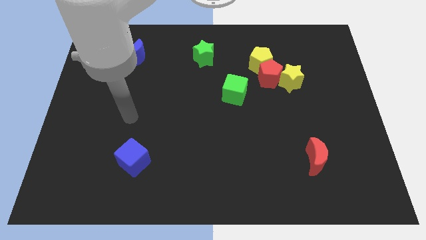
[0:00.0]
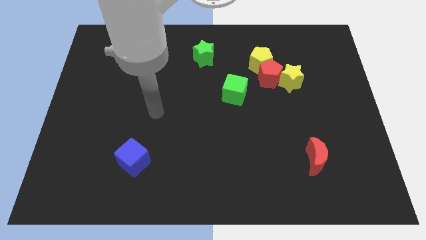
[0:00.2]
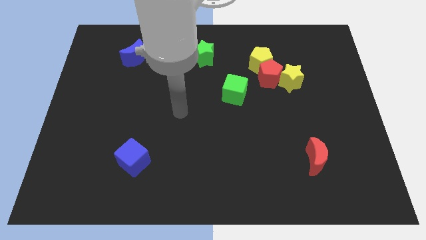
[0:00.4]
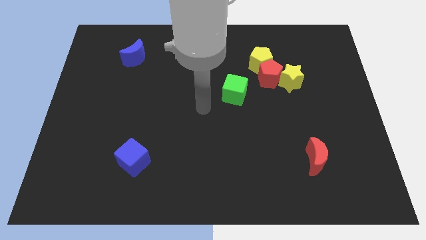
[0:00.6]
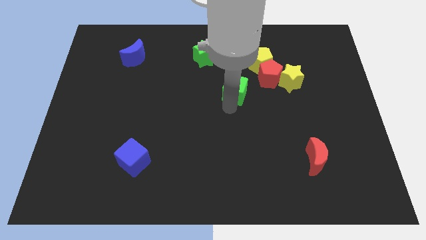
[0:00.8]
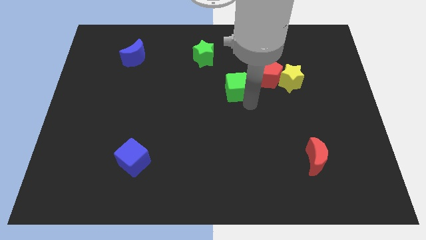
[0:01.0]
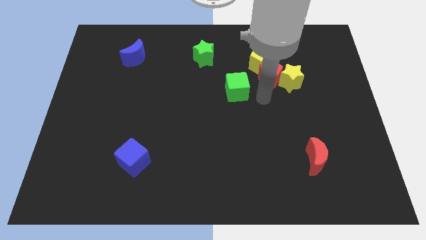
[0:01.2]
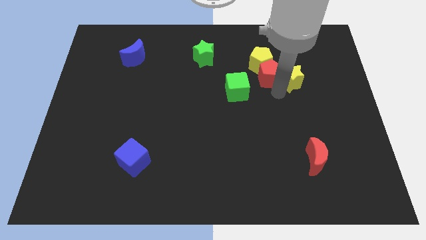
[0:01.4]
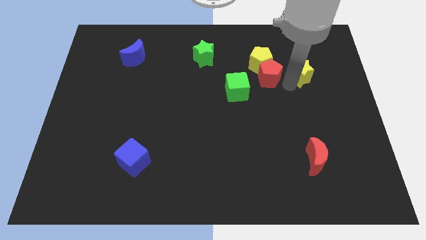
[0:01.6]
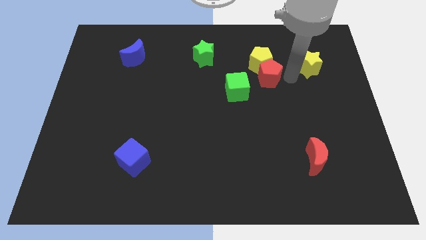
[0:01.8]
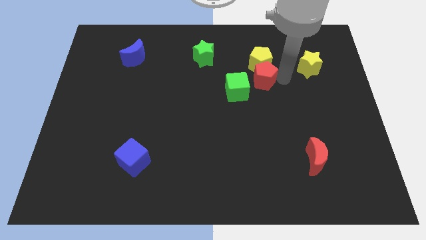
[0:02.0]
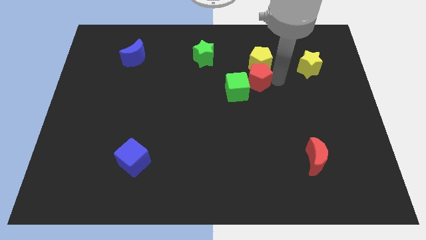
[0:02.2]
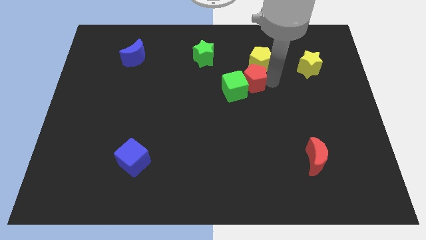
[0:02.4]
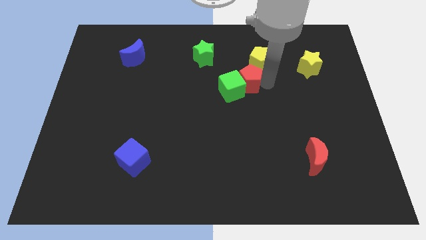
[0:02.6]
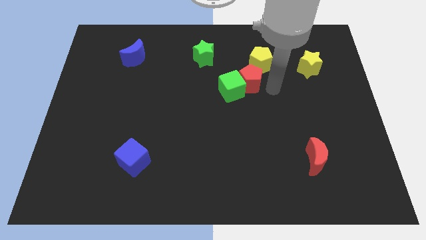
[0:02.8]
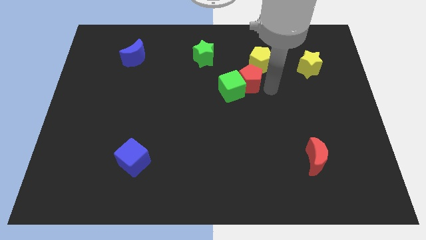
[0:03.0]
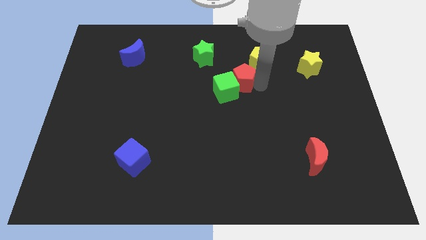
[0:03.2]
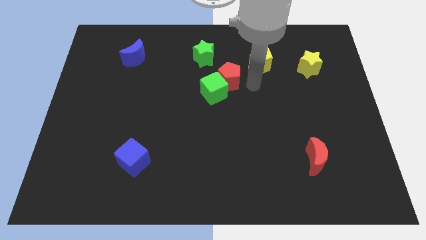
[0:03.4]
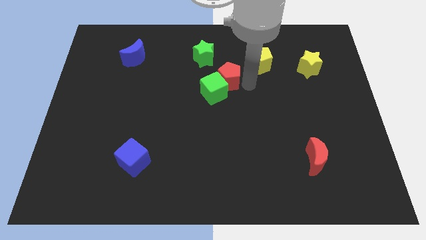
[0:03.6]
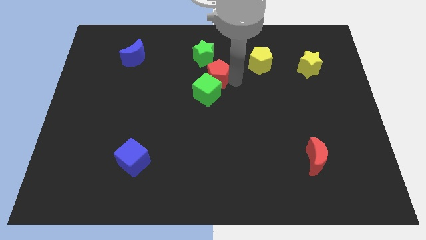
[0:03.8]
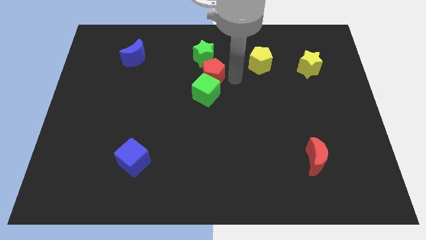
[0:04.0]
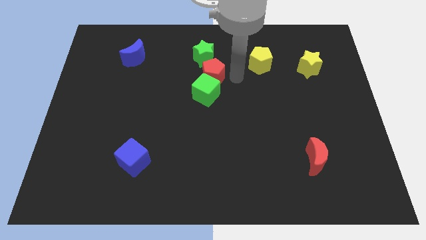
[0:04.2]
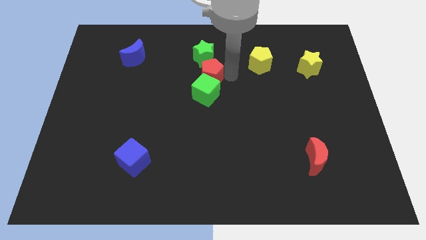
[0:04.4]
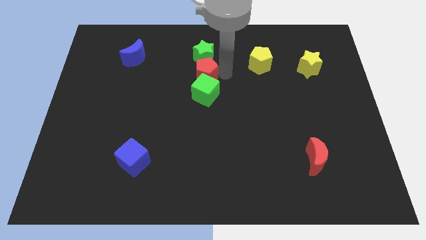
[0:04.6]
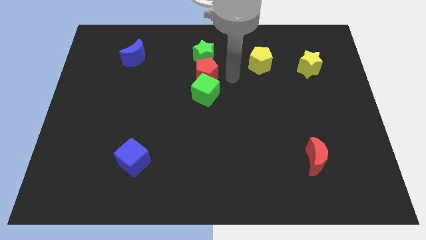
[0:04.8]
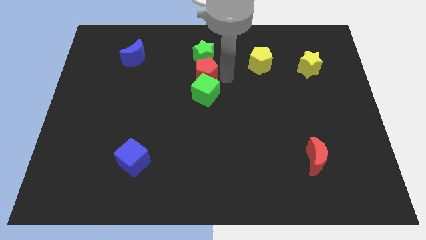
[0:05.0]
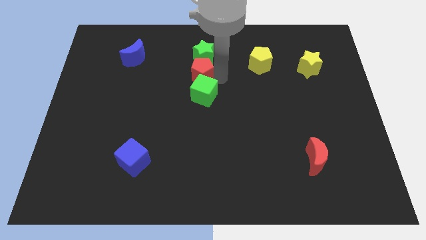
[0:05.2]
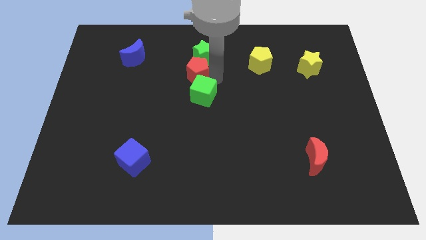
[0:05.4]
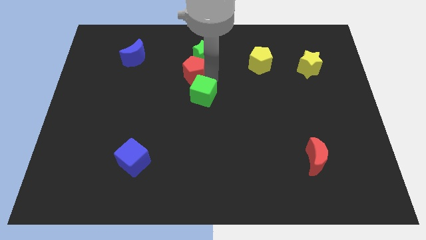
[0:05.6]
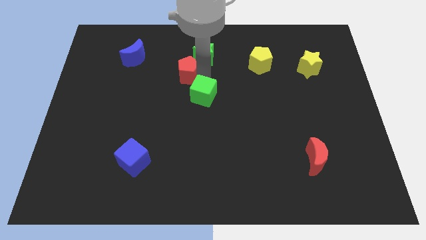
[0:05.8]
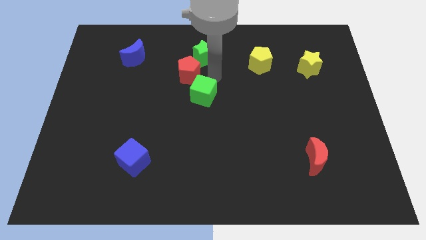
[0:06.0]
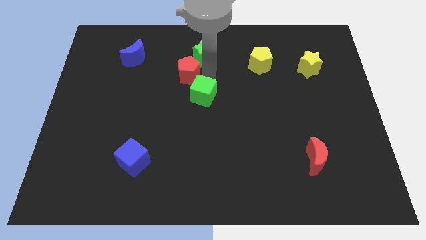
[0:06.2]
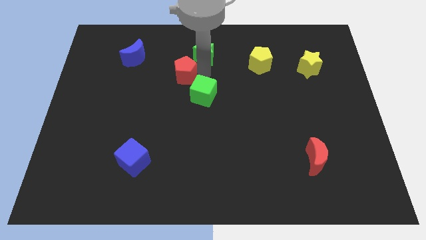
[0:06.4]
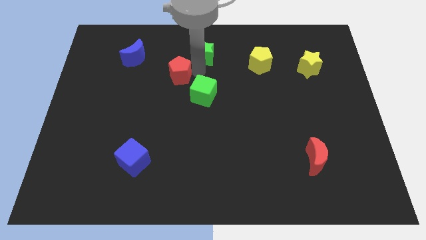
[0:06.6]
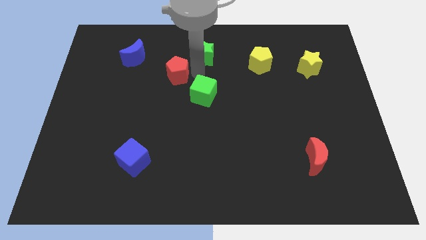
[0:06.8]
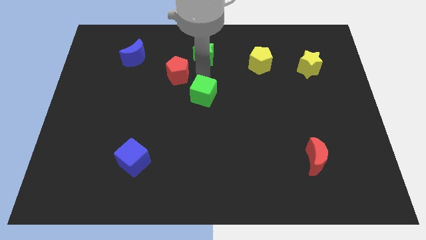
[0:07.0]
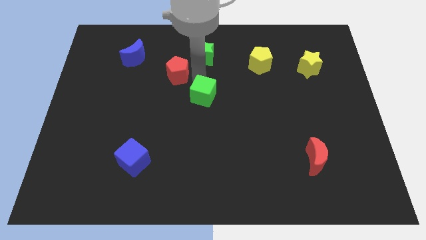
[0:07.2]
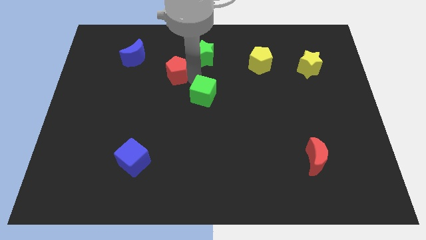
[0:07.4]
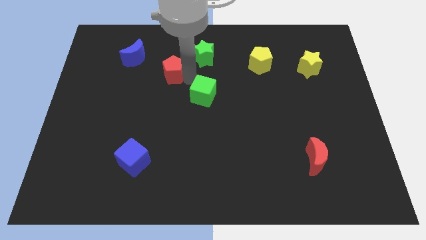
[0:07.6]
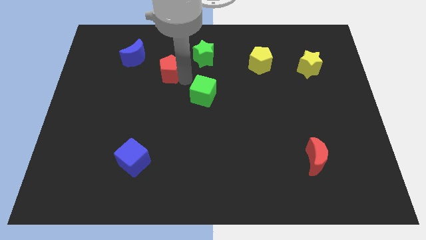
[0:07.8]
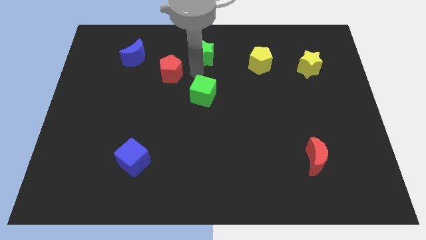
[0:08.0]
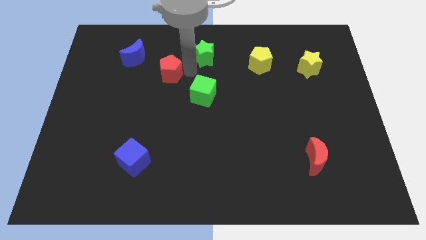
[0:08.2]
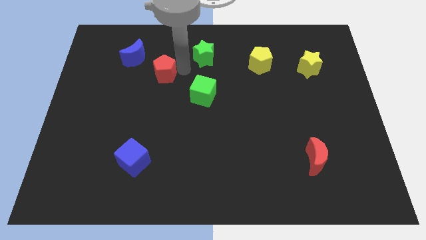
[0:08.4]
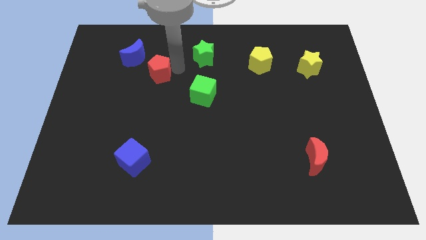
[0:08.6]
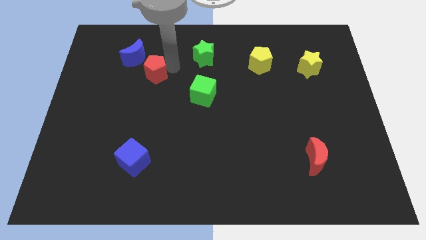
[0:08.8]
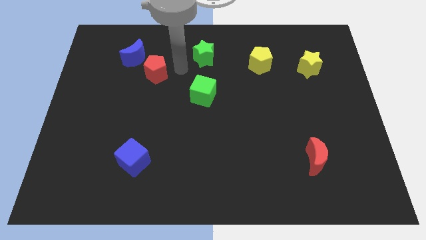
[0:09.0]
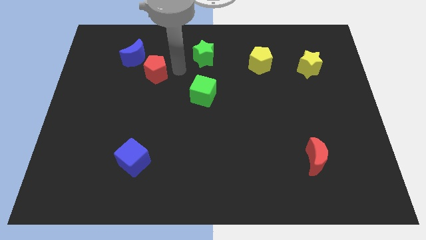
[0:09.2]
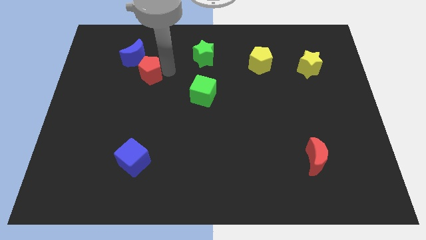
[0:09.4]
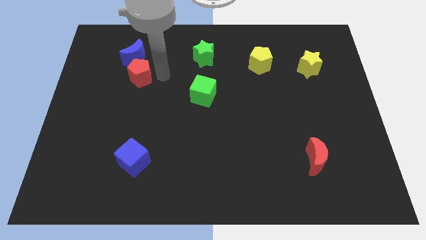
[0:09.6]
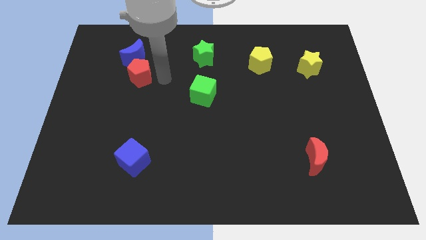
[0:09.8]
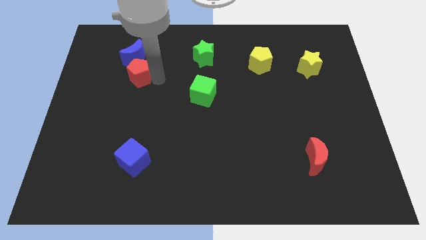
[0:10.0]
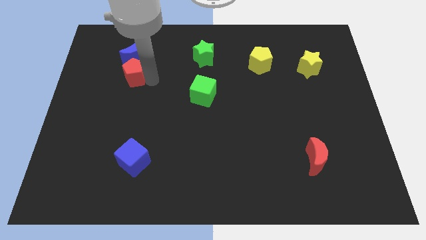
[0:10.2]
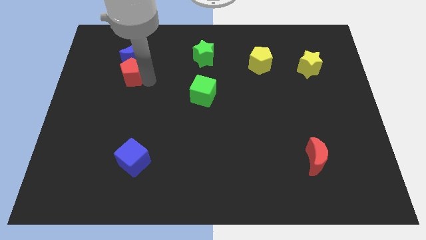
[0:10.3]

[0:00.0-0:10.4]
put the red pentagon diagonally down and to the left of the blue moon

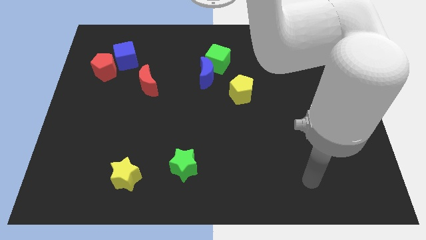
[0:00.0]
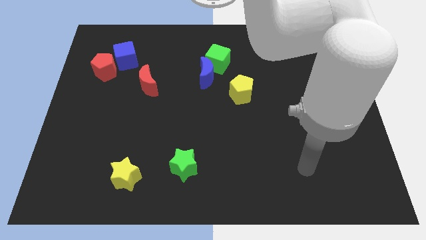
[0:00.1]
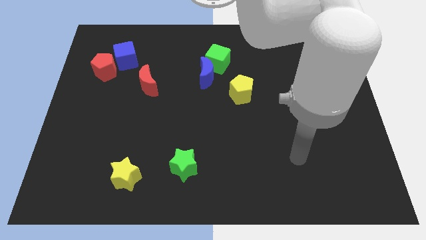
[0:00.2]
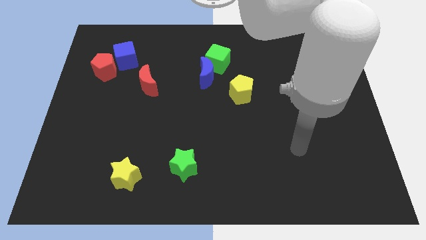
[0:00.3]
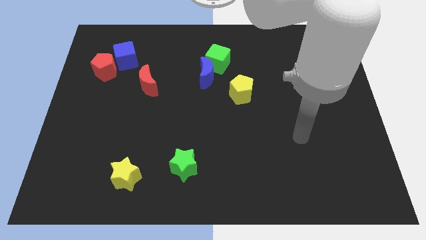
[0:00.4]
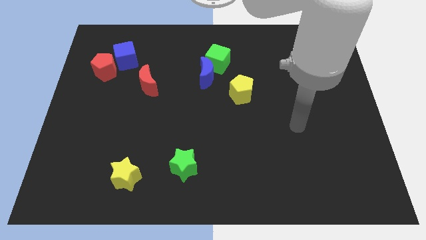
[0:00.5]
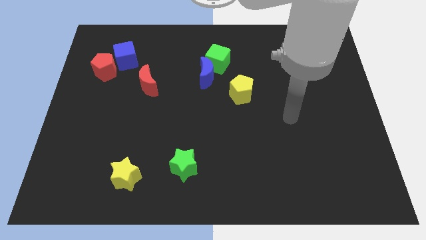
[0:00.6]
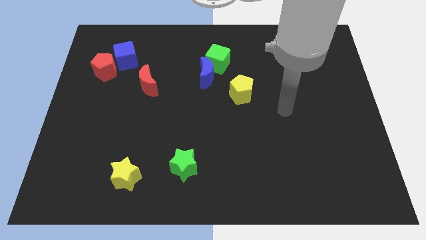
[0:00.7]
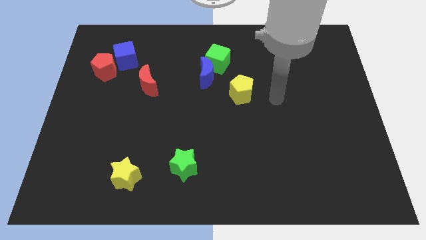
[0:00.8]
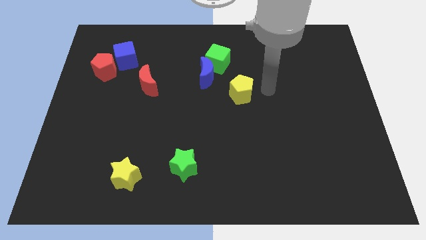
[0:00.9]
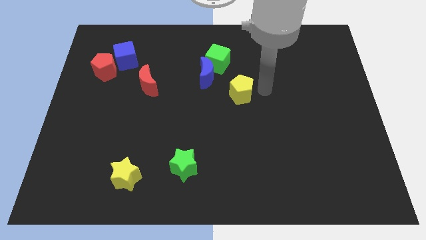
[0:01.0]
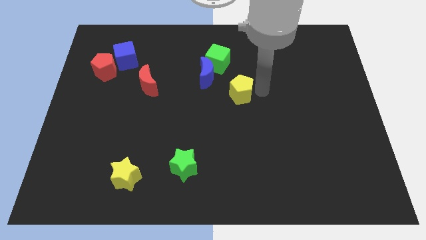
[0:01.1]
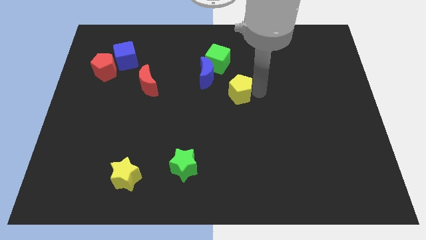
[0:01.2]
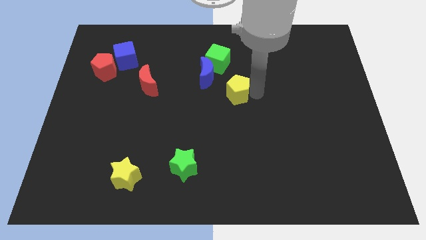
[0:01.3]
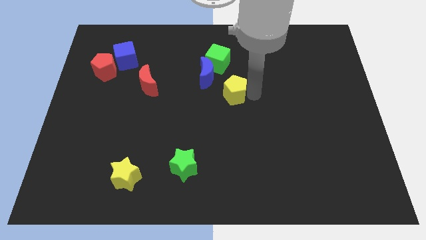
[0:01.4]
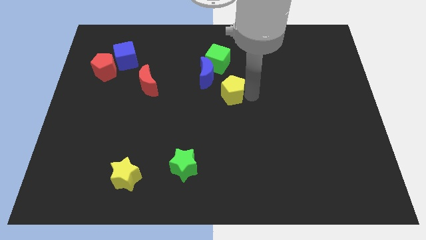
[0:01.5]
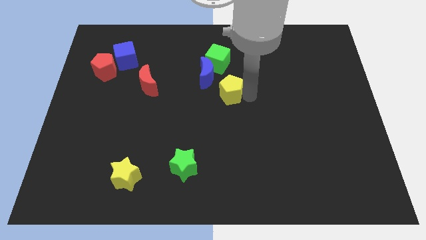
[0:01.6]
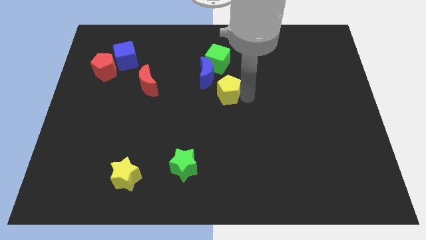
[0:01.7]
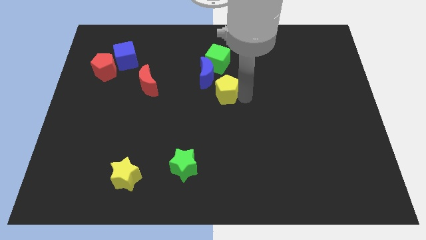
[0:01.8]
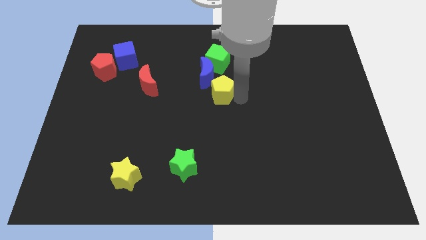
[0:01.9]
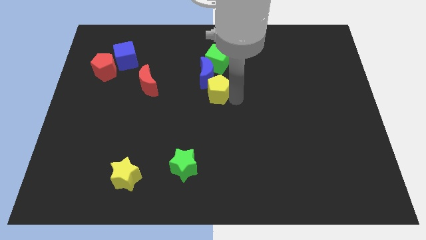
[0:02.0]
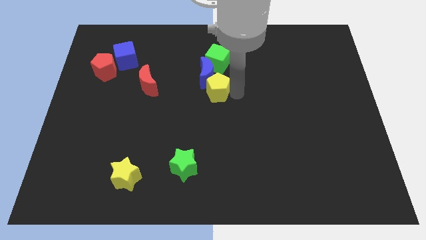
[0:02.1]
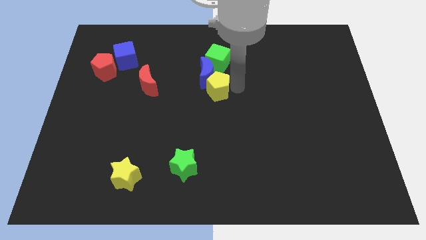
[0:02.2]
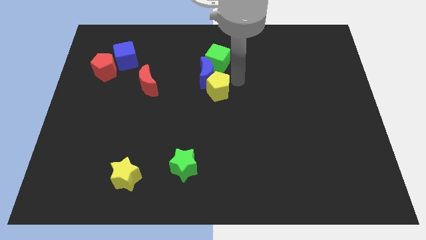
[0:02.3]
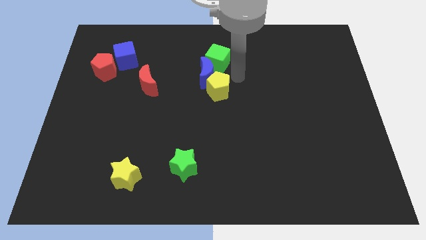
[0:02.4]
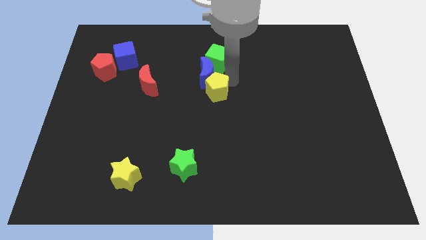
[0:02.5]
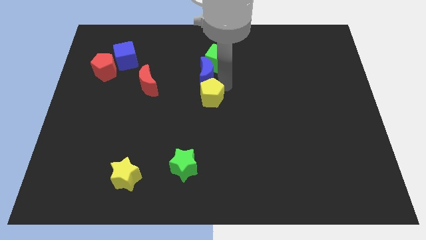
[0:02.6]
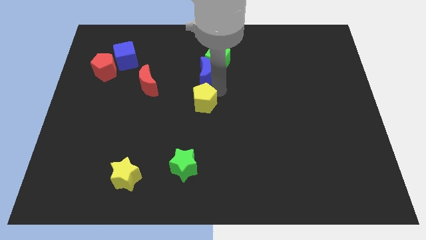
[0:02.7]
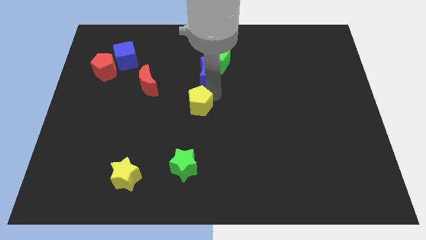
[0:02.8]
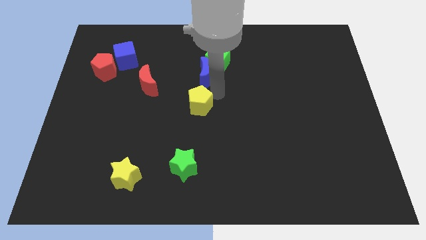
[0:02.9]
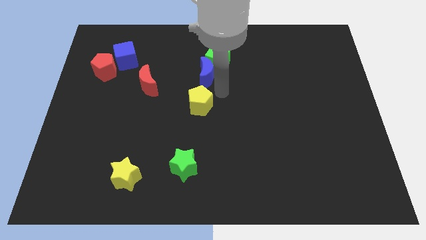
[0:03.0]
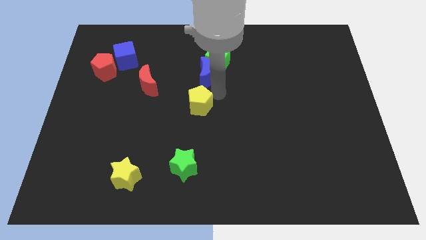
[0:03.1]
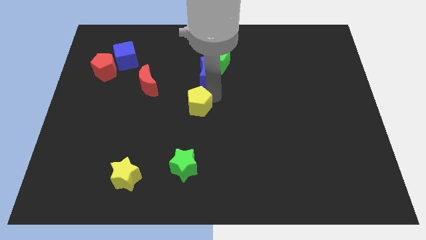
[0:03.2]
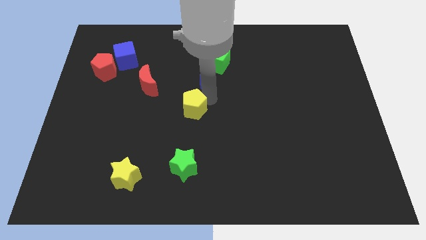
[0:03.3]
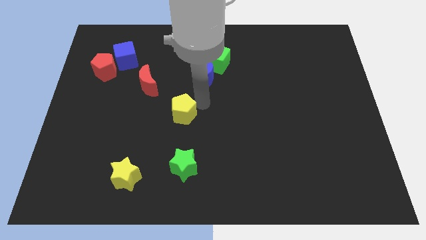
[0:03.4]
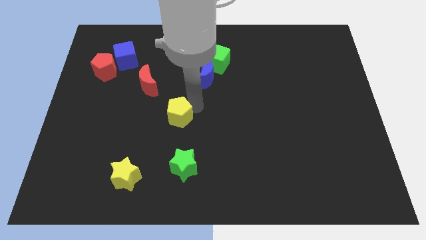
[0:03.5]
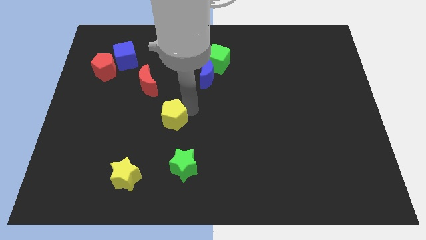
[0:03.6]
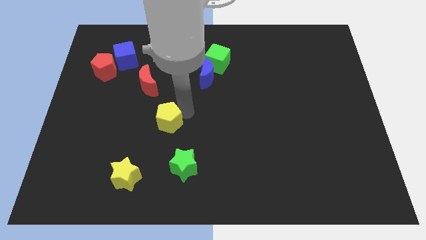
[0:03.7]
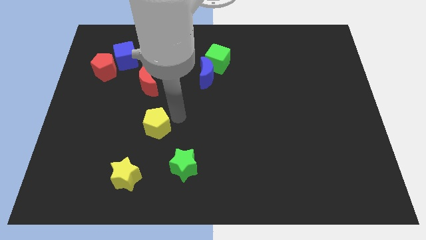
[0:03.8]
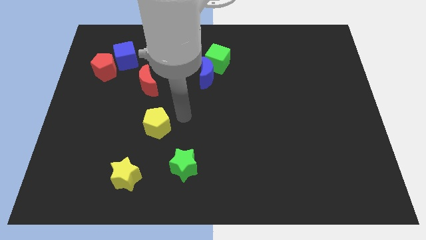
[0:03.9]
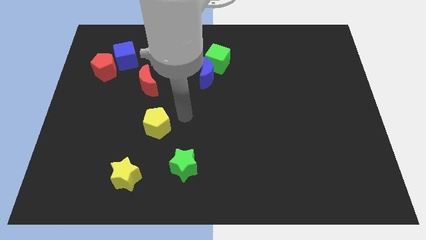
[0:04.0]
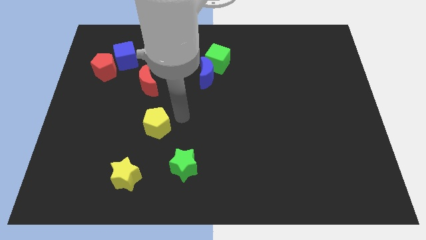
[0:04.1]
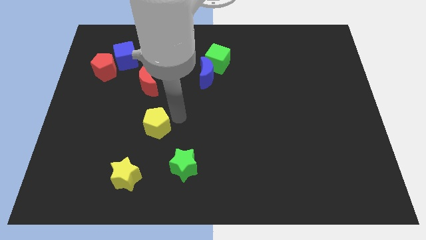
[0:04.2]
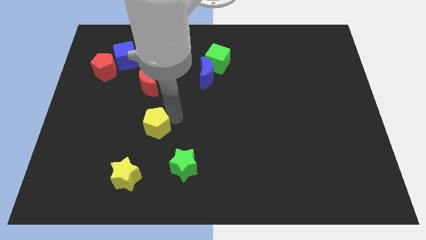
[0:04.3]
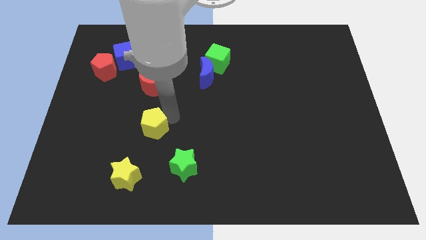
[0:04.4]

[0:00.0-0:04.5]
push the yellow pentagon to the top side of the yellow star
